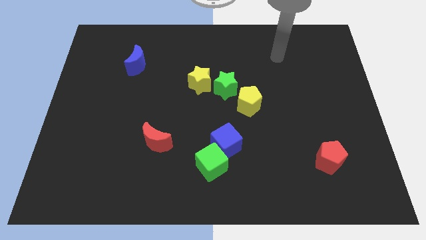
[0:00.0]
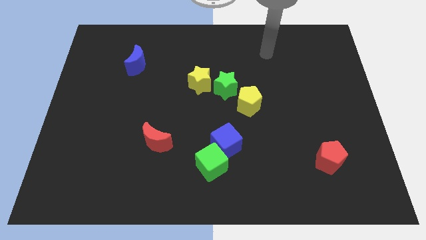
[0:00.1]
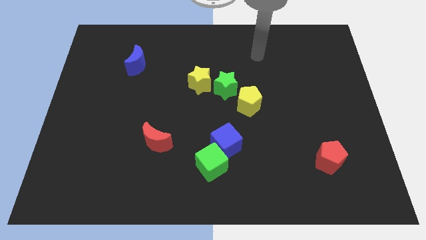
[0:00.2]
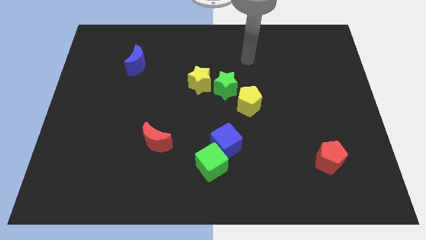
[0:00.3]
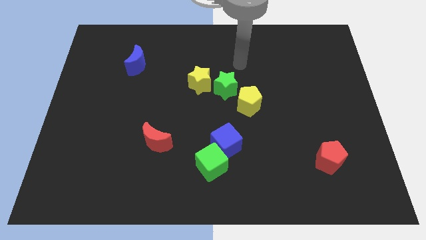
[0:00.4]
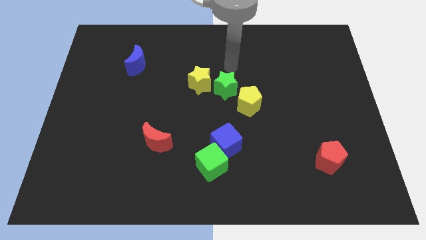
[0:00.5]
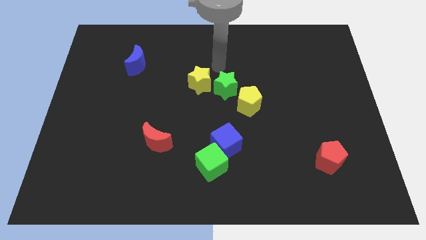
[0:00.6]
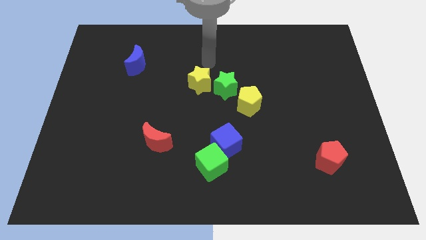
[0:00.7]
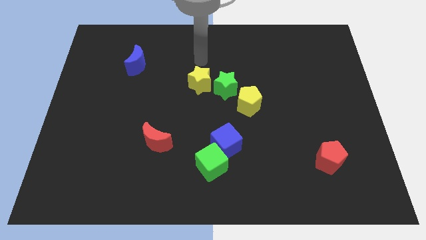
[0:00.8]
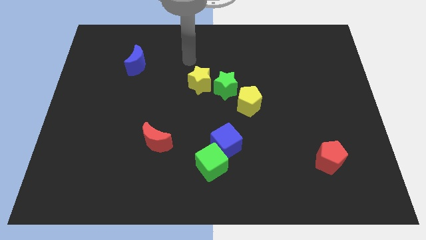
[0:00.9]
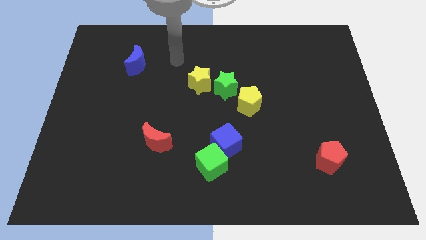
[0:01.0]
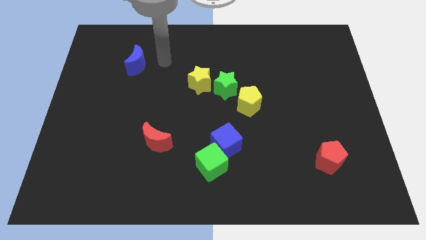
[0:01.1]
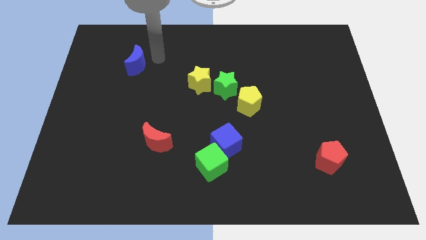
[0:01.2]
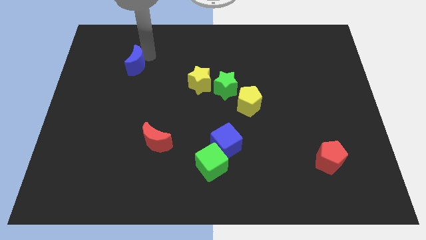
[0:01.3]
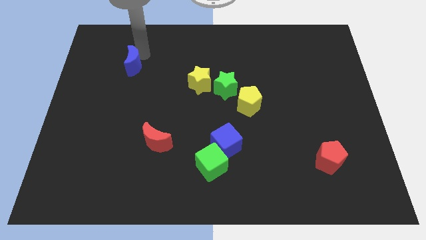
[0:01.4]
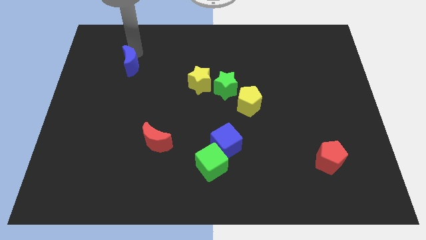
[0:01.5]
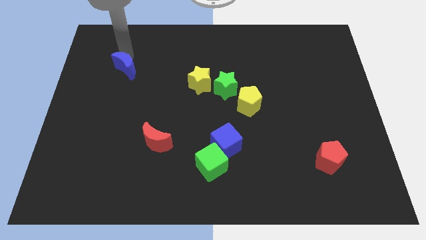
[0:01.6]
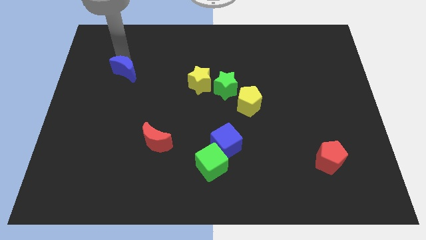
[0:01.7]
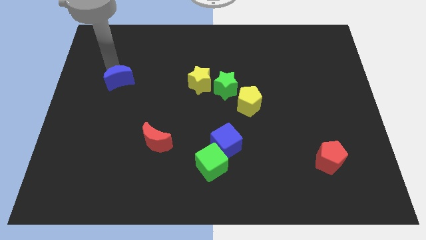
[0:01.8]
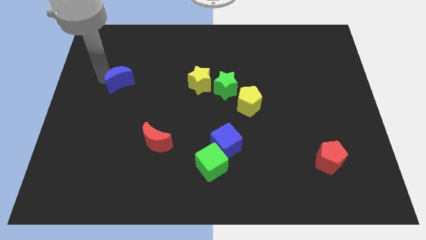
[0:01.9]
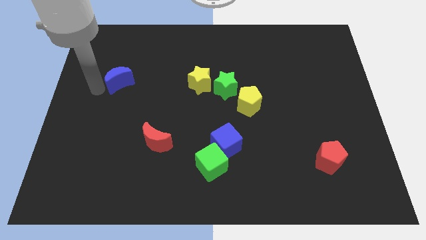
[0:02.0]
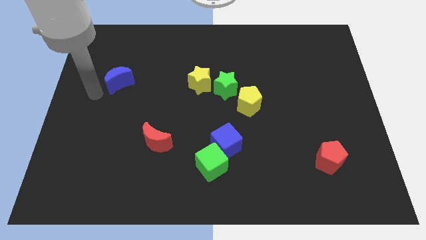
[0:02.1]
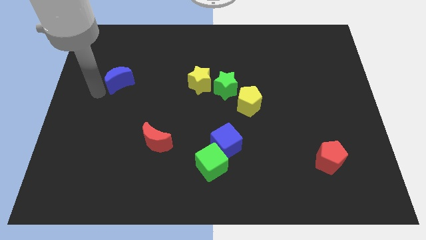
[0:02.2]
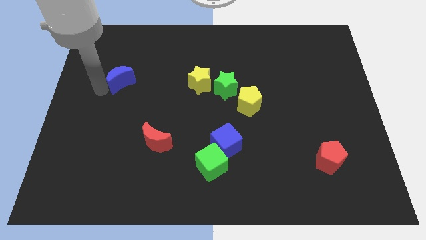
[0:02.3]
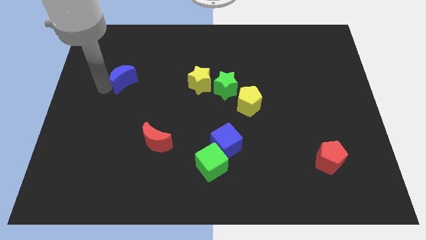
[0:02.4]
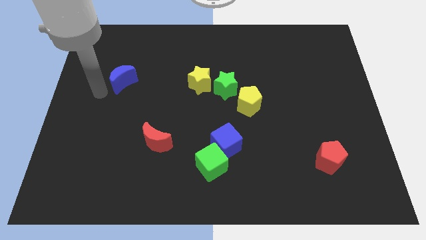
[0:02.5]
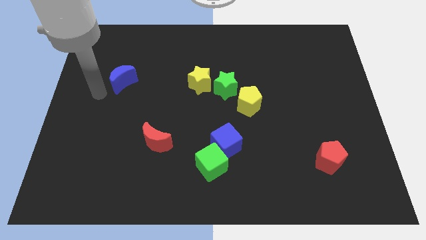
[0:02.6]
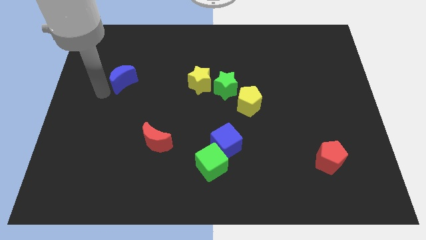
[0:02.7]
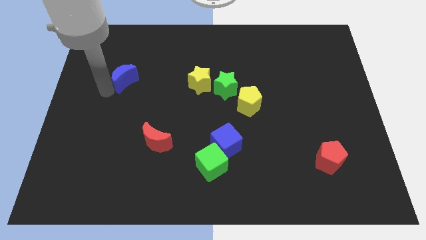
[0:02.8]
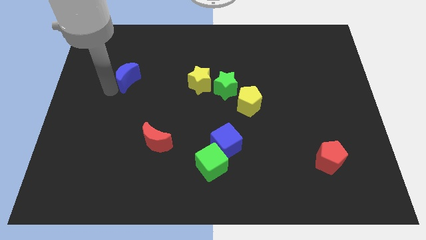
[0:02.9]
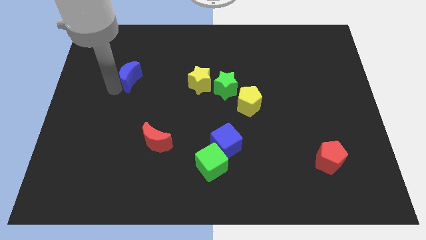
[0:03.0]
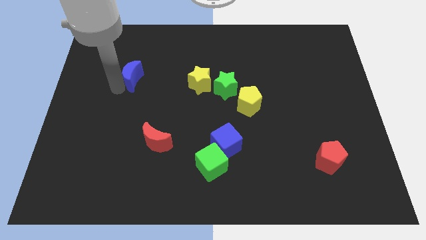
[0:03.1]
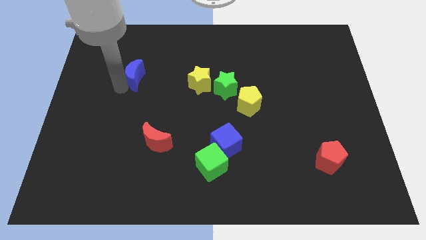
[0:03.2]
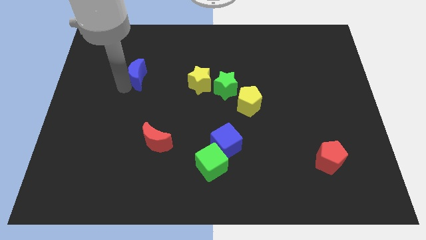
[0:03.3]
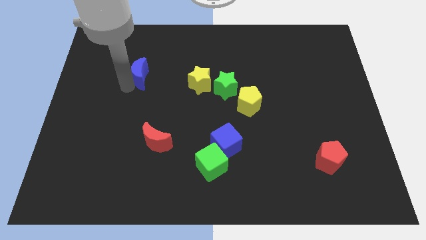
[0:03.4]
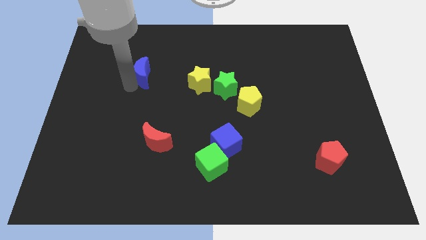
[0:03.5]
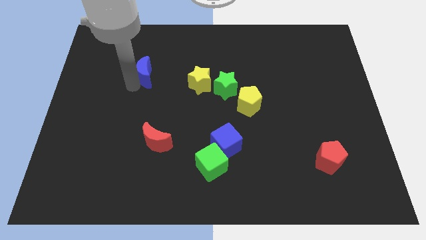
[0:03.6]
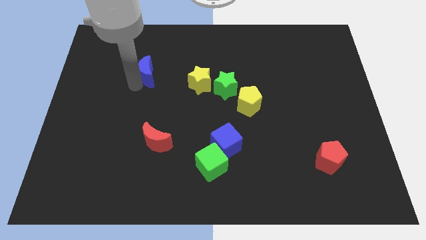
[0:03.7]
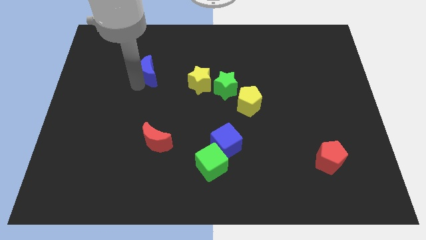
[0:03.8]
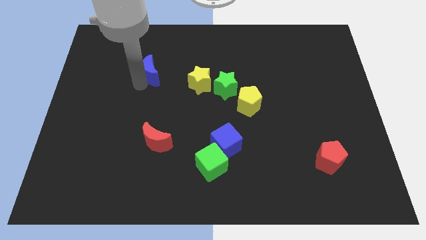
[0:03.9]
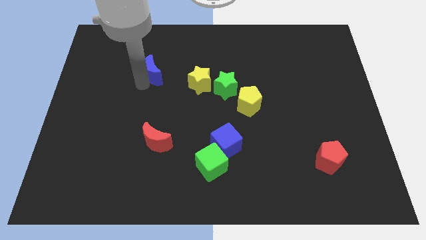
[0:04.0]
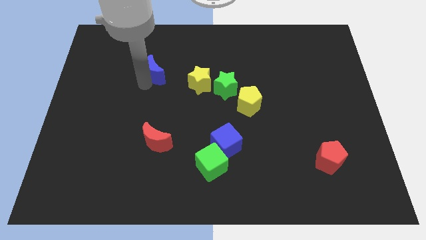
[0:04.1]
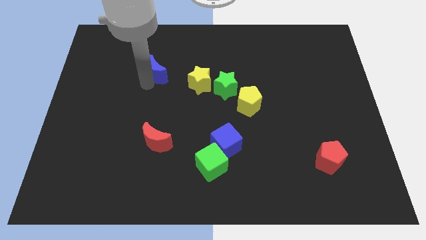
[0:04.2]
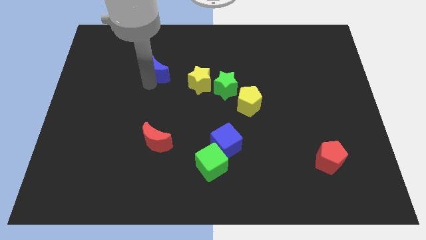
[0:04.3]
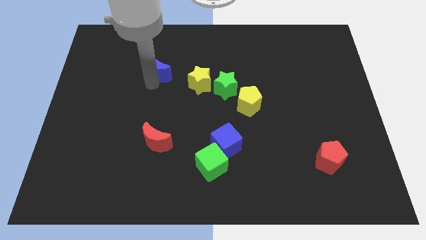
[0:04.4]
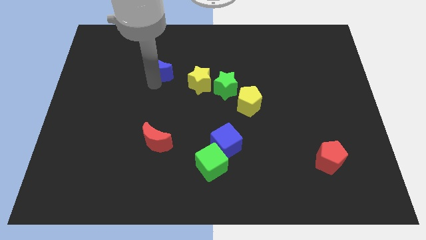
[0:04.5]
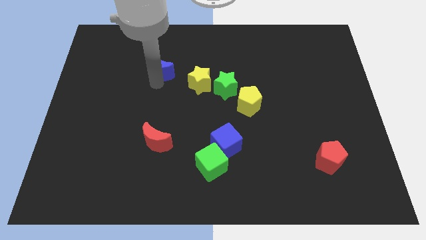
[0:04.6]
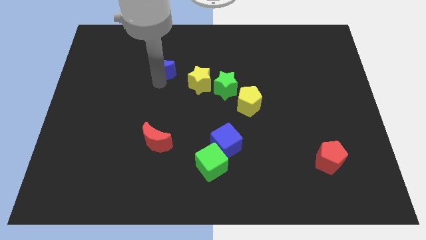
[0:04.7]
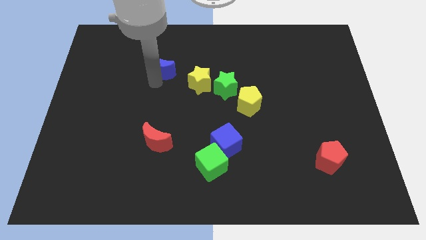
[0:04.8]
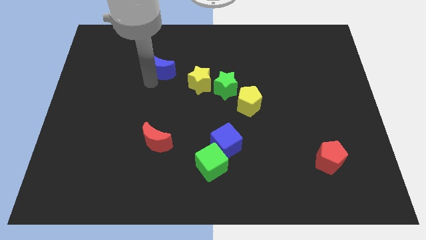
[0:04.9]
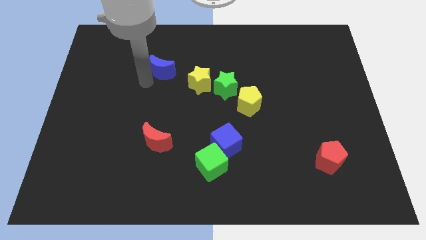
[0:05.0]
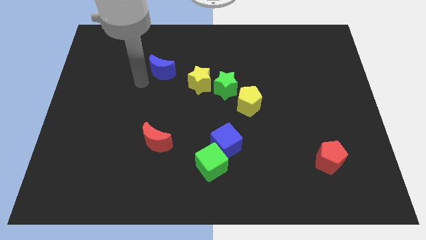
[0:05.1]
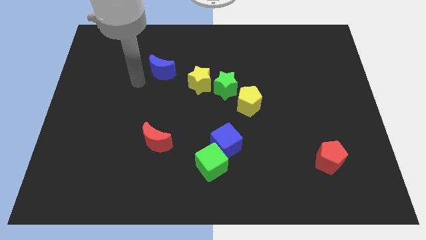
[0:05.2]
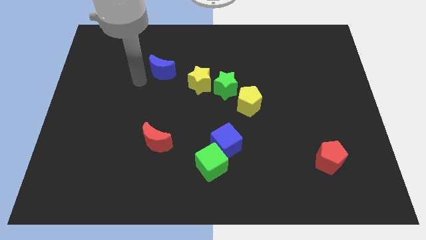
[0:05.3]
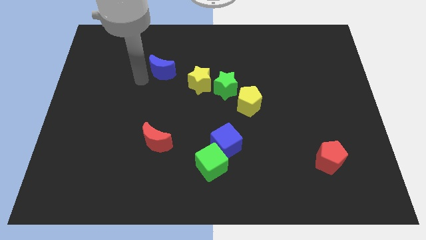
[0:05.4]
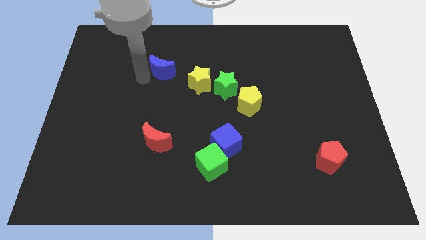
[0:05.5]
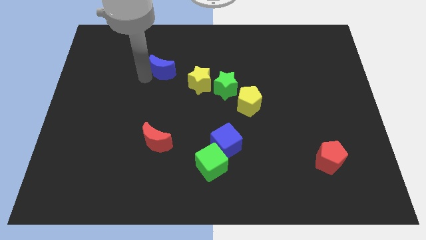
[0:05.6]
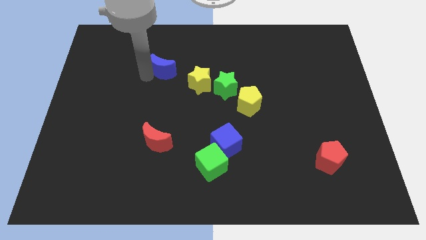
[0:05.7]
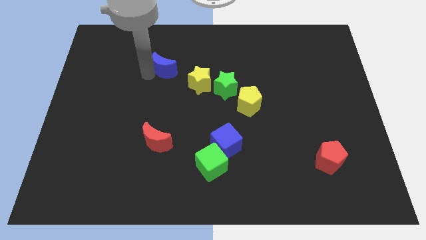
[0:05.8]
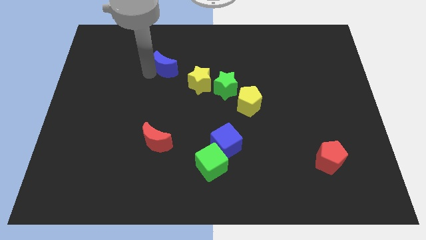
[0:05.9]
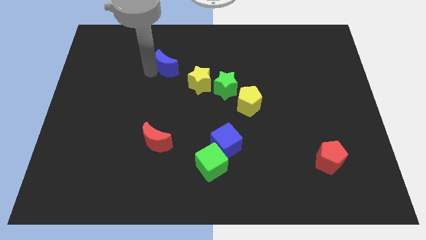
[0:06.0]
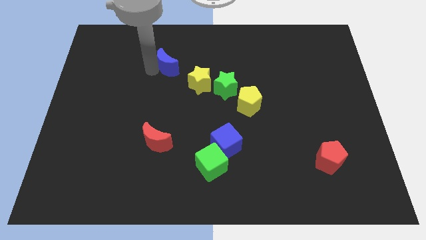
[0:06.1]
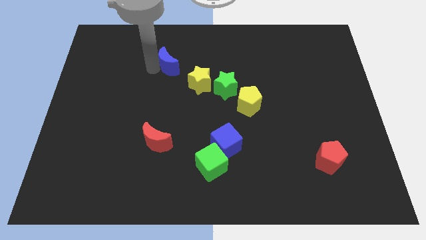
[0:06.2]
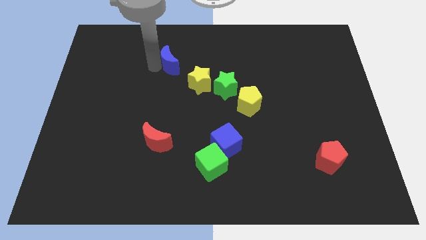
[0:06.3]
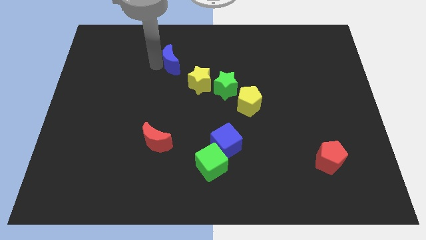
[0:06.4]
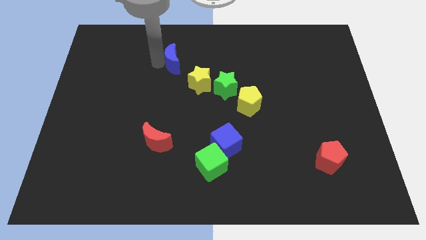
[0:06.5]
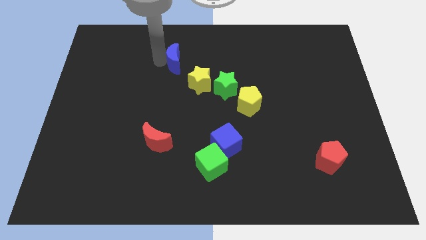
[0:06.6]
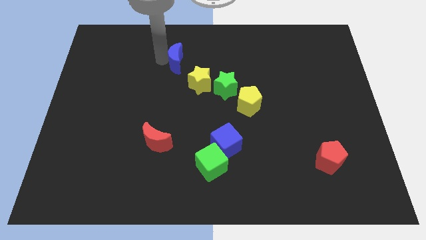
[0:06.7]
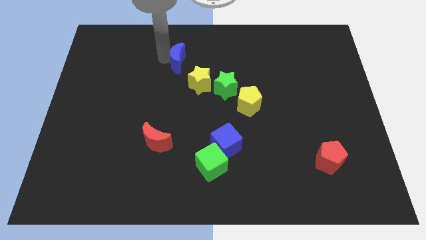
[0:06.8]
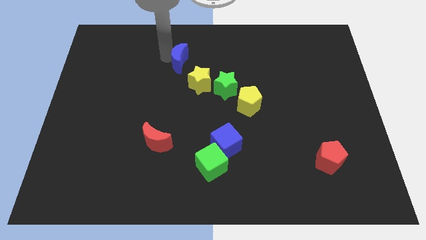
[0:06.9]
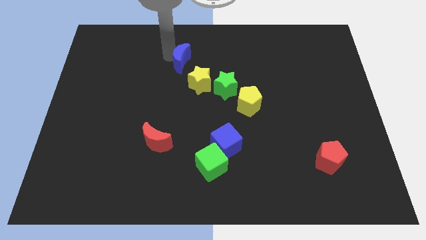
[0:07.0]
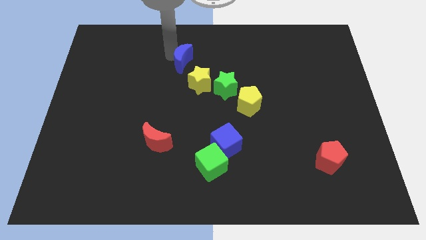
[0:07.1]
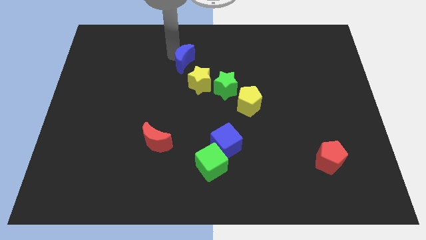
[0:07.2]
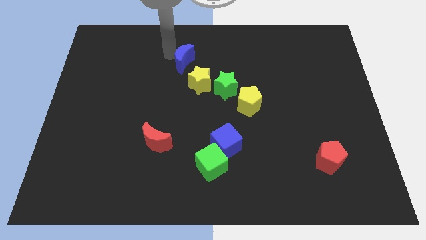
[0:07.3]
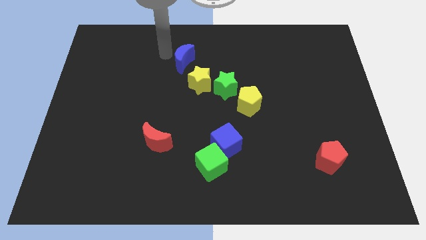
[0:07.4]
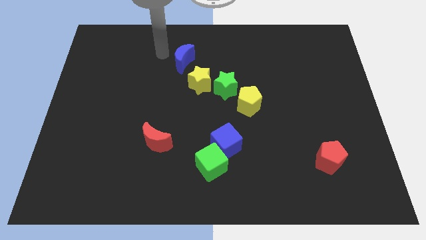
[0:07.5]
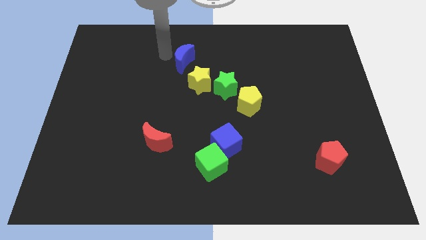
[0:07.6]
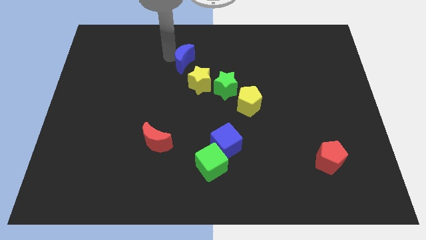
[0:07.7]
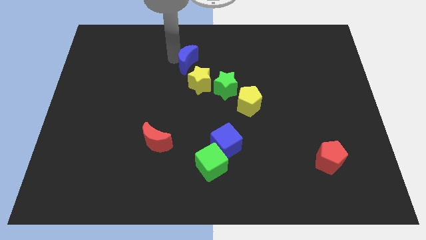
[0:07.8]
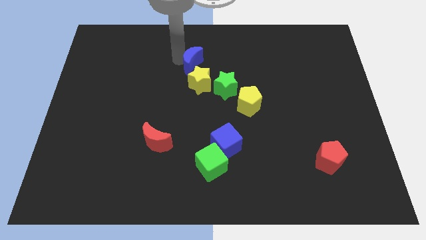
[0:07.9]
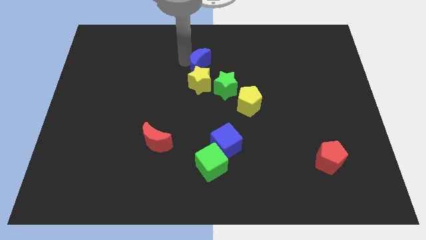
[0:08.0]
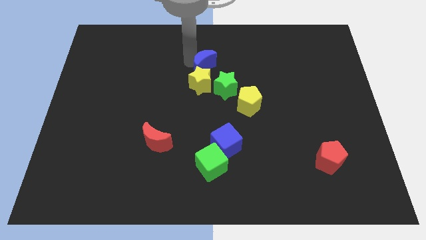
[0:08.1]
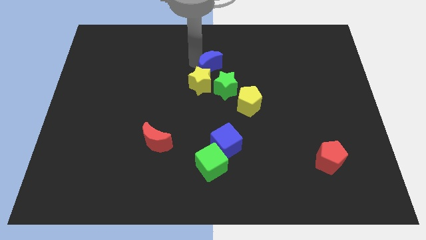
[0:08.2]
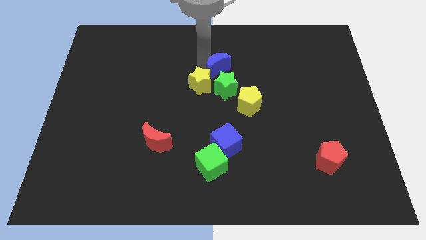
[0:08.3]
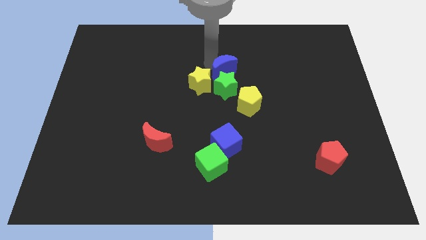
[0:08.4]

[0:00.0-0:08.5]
move the blue moon to the green star
